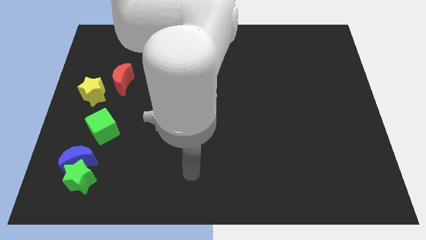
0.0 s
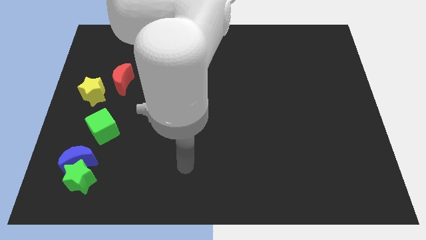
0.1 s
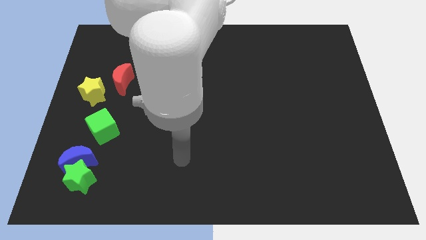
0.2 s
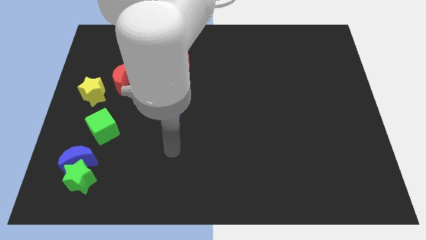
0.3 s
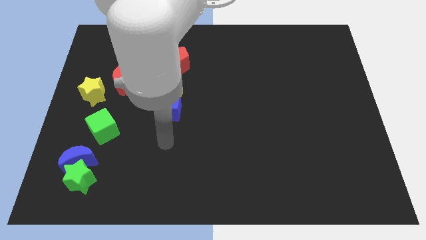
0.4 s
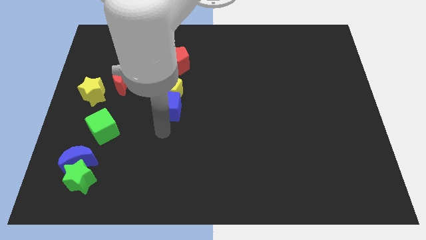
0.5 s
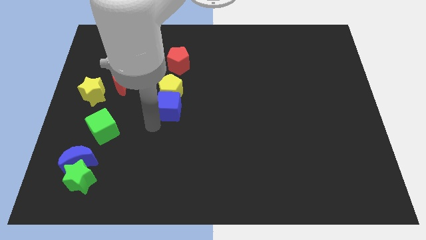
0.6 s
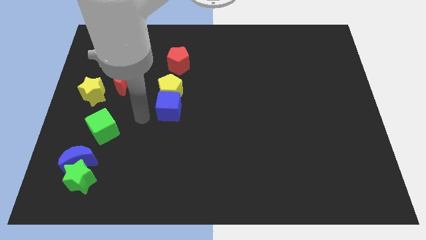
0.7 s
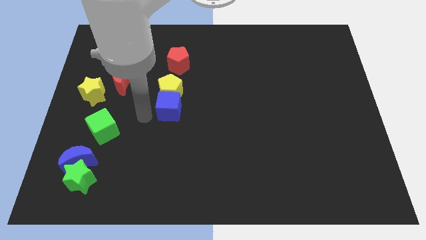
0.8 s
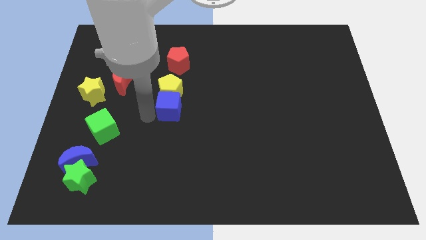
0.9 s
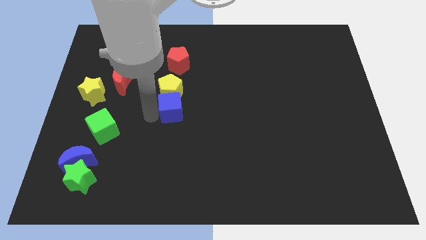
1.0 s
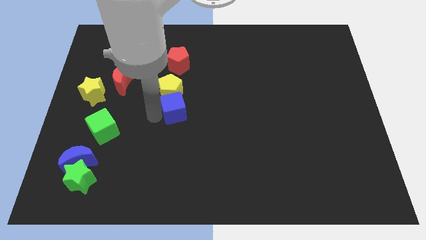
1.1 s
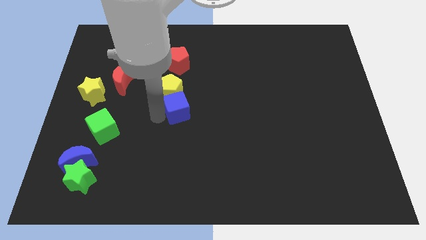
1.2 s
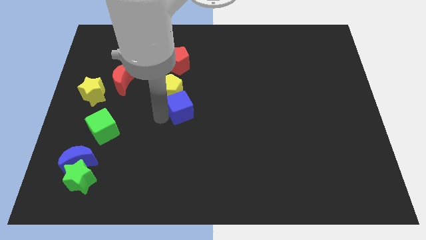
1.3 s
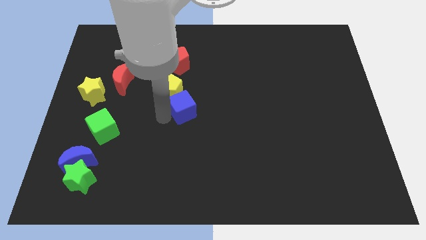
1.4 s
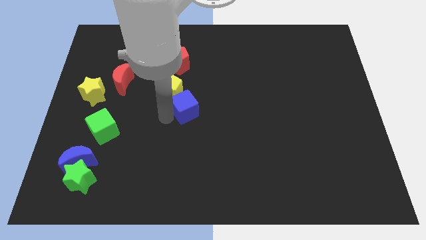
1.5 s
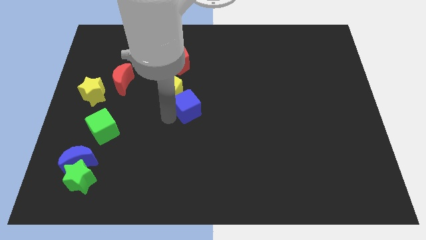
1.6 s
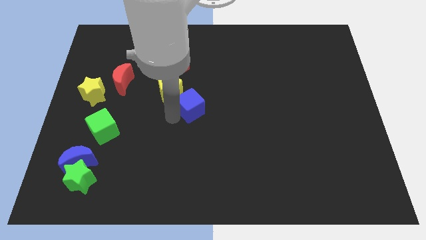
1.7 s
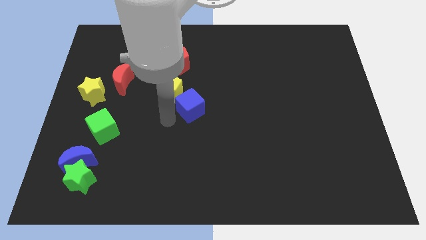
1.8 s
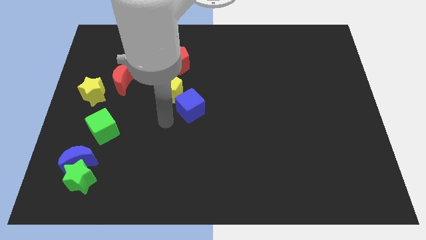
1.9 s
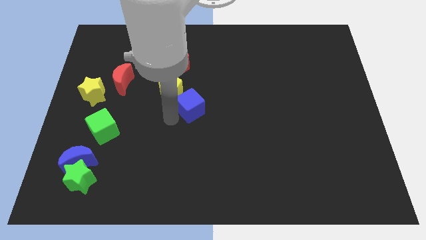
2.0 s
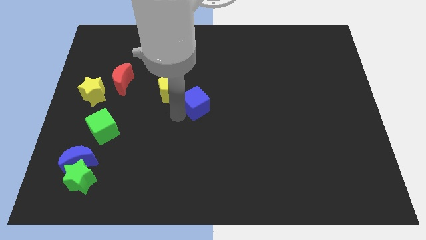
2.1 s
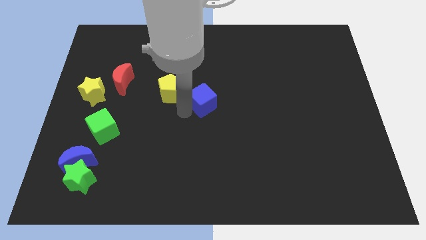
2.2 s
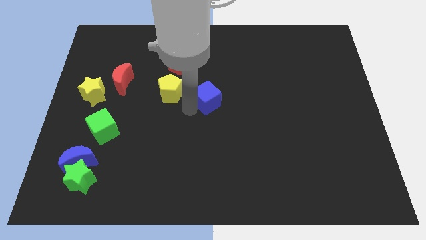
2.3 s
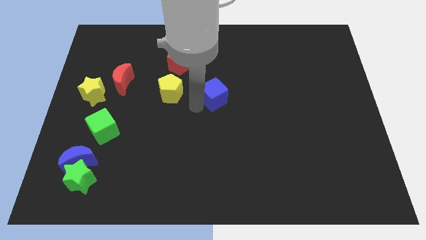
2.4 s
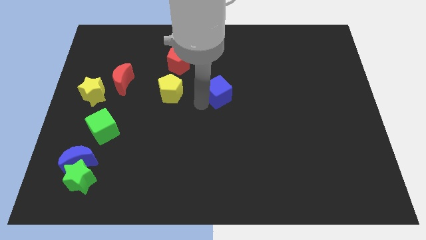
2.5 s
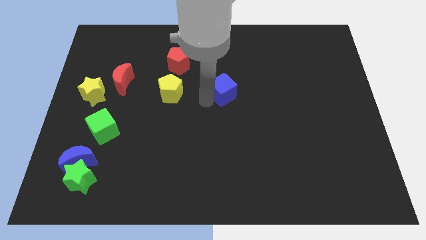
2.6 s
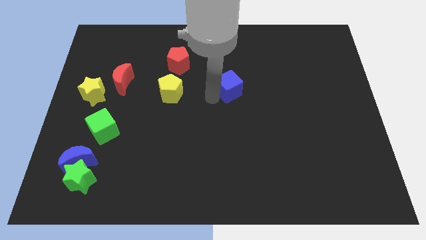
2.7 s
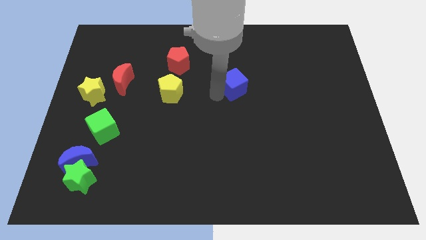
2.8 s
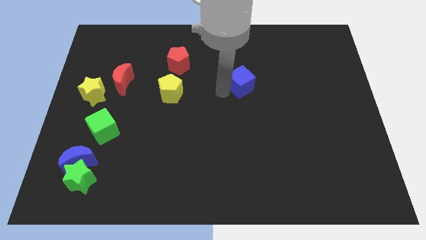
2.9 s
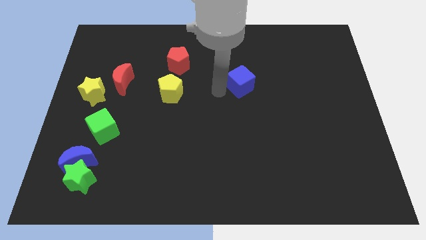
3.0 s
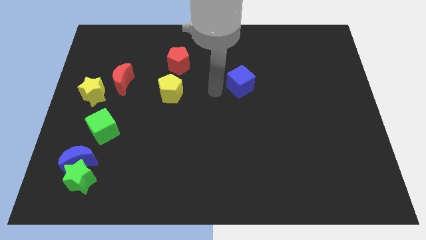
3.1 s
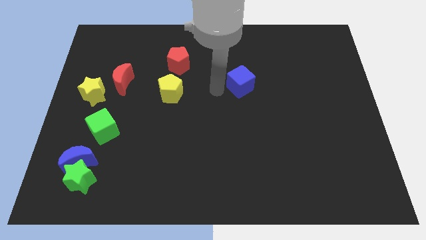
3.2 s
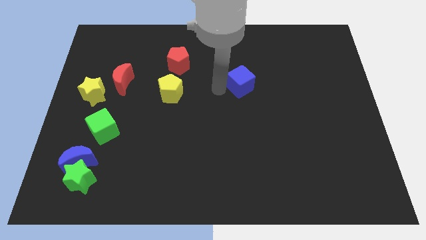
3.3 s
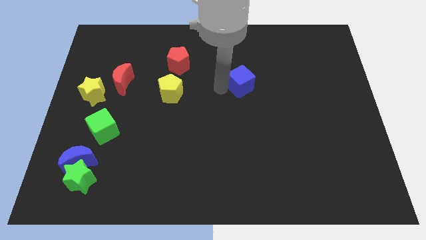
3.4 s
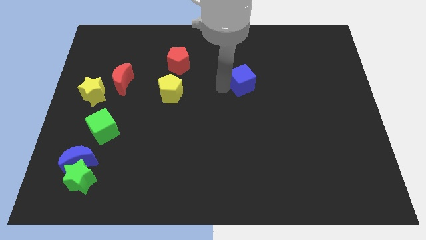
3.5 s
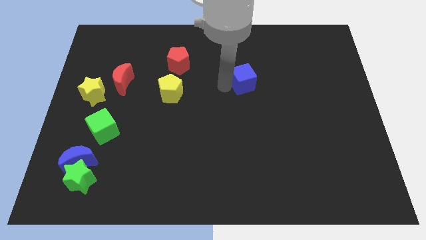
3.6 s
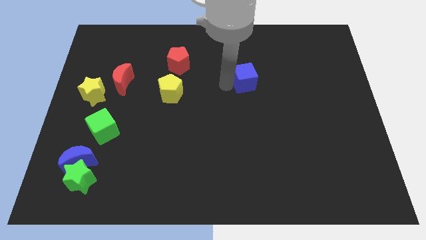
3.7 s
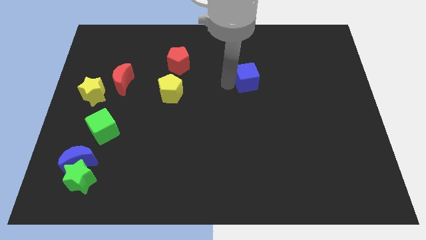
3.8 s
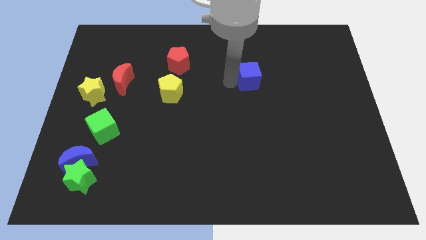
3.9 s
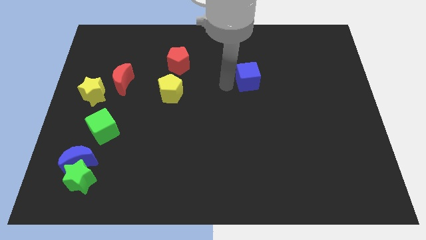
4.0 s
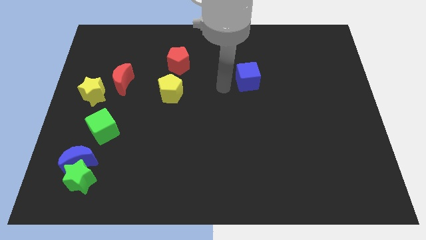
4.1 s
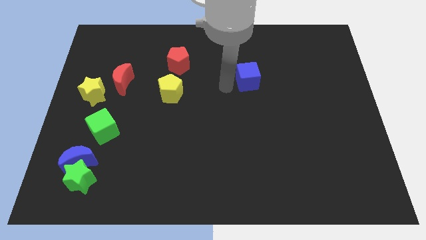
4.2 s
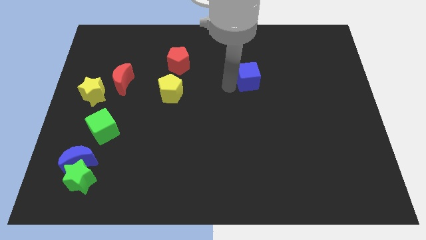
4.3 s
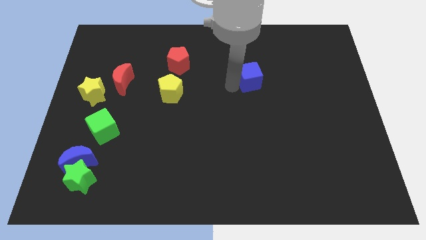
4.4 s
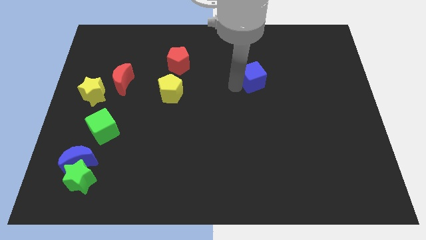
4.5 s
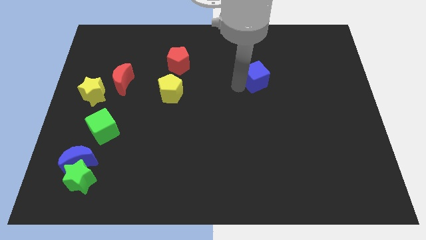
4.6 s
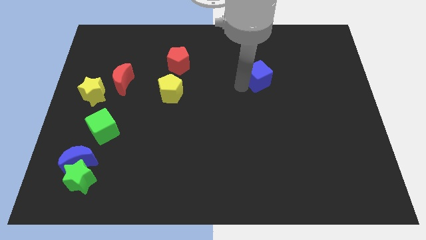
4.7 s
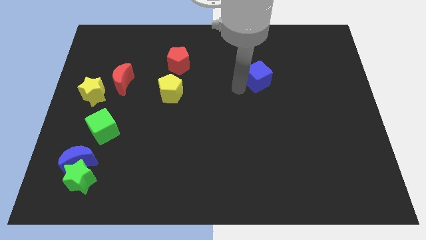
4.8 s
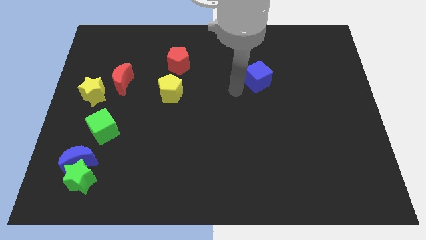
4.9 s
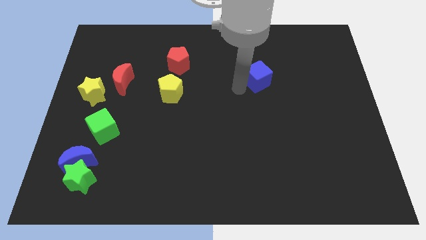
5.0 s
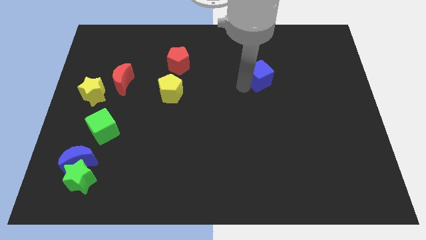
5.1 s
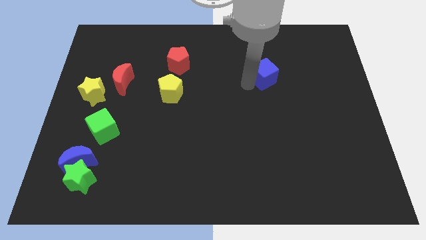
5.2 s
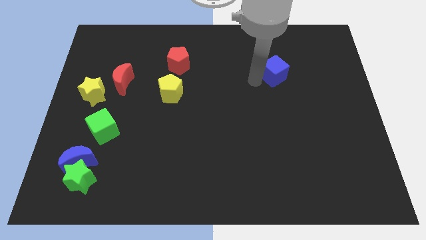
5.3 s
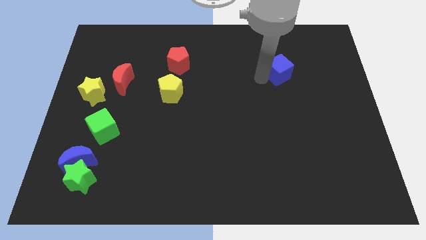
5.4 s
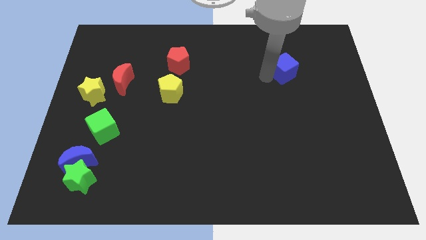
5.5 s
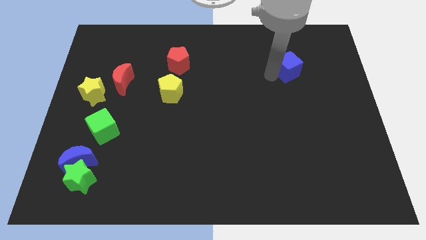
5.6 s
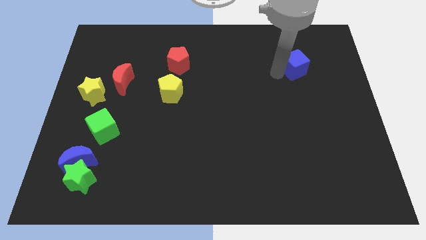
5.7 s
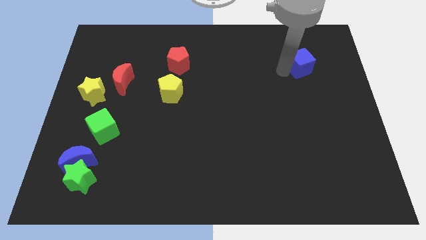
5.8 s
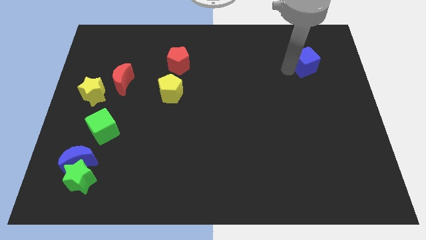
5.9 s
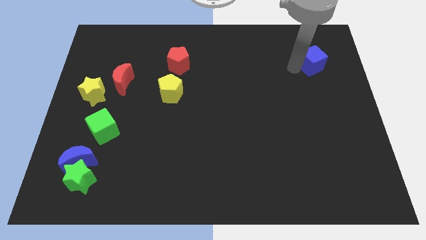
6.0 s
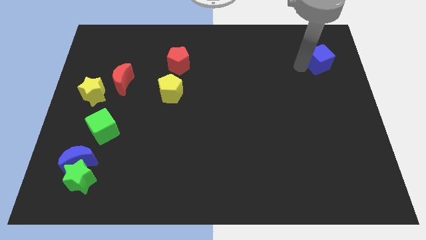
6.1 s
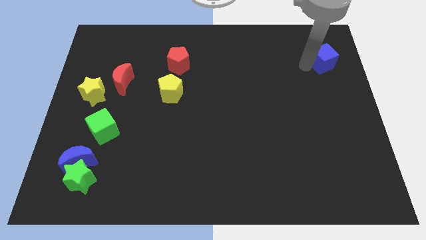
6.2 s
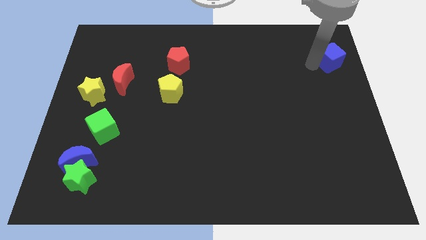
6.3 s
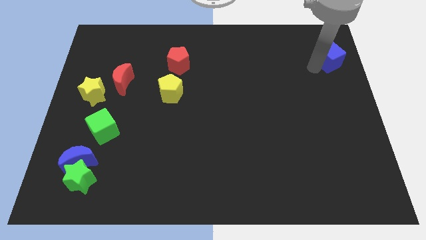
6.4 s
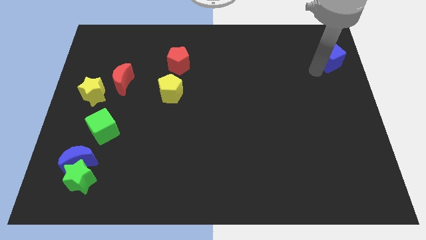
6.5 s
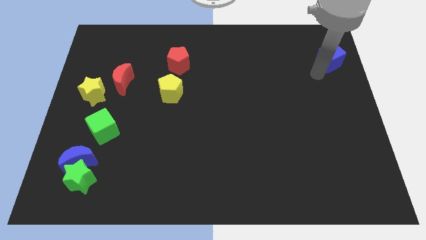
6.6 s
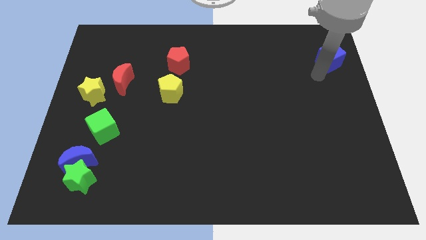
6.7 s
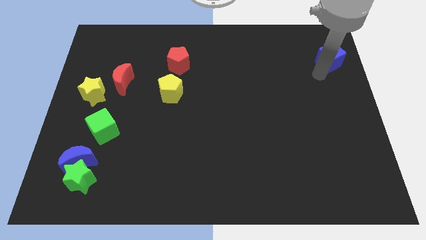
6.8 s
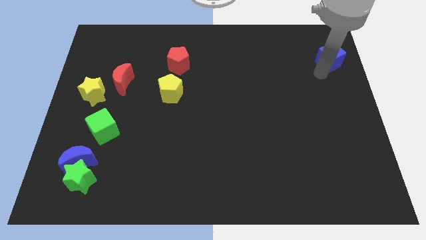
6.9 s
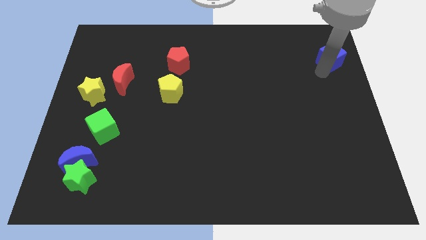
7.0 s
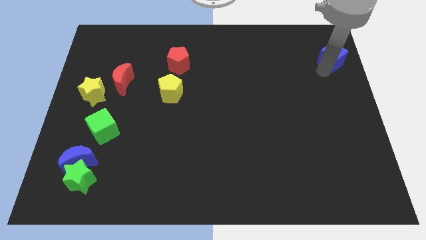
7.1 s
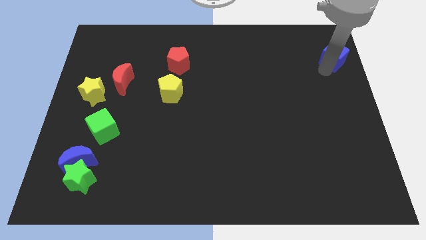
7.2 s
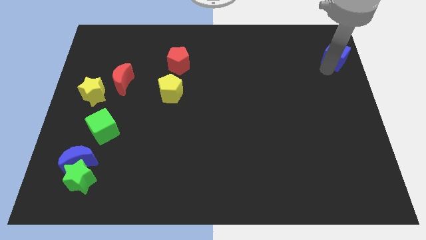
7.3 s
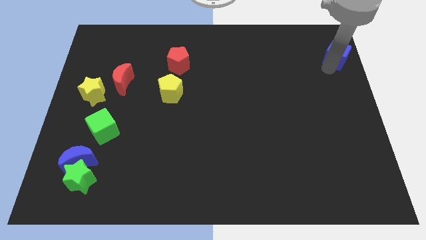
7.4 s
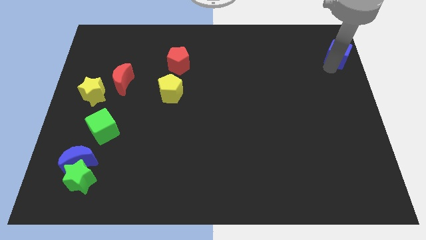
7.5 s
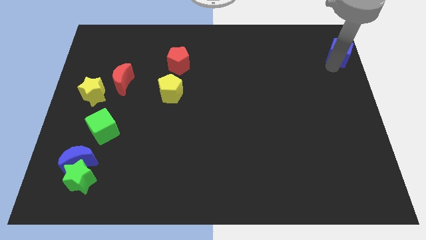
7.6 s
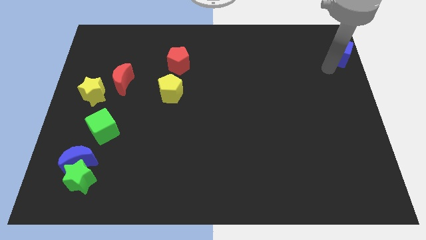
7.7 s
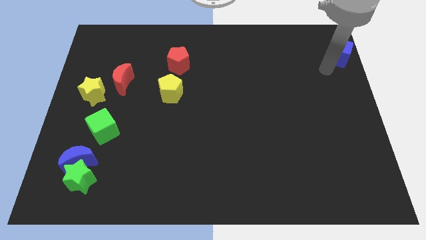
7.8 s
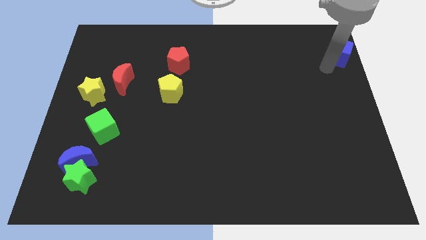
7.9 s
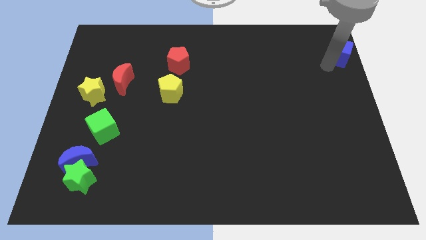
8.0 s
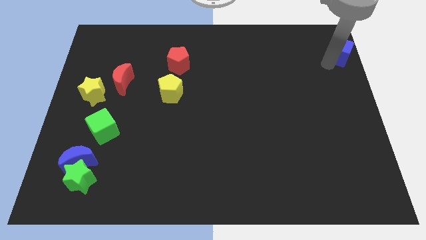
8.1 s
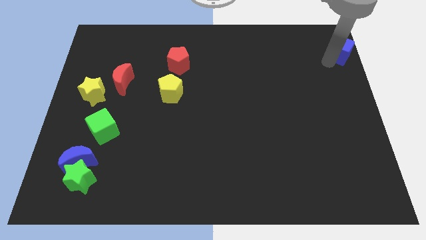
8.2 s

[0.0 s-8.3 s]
push the blue cube to the top right corner

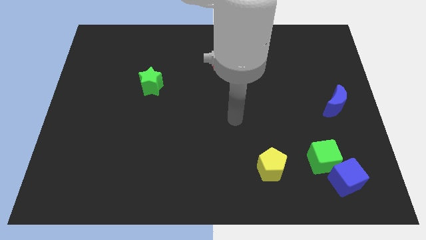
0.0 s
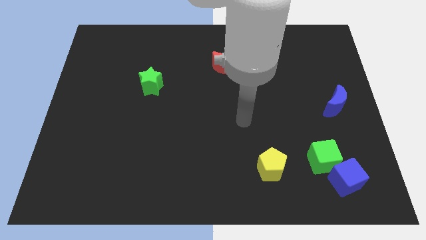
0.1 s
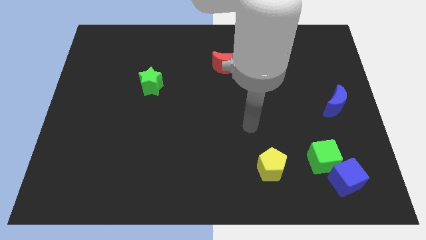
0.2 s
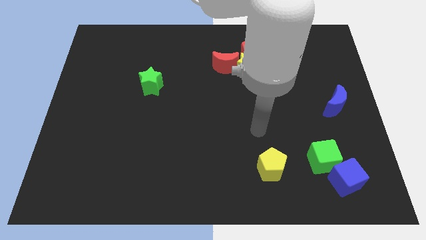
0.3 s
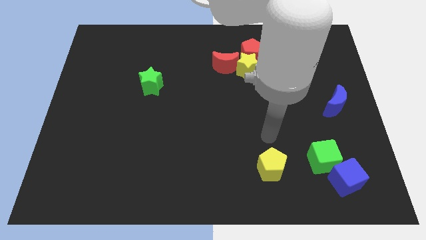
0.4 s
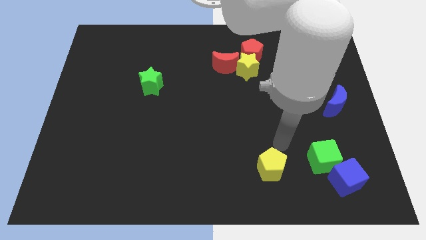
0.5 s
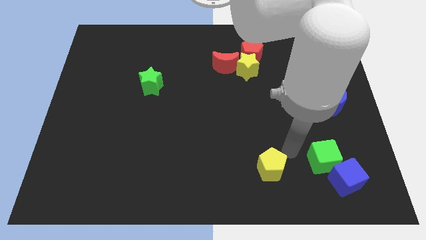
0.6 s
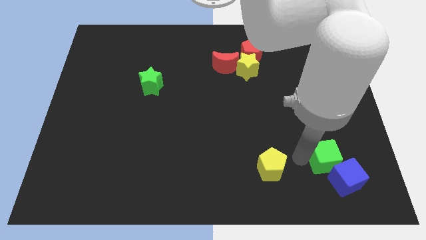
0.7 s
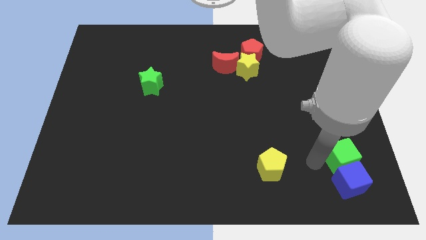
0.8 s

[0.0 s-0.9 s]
slide the blue cube to the bottom right of the board
